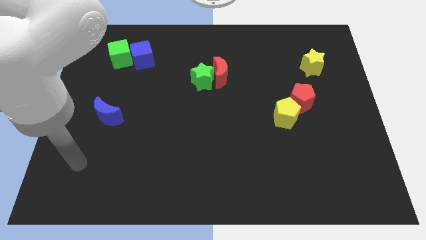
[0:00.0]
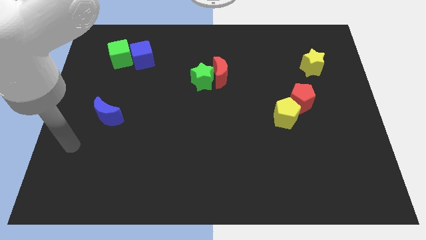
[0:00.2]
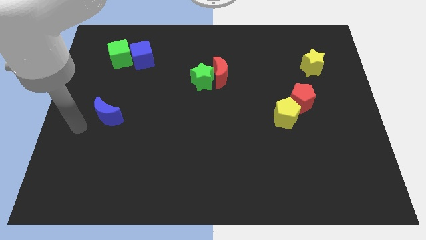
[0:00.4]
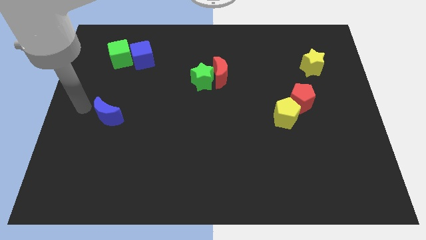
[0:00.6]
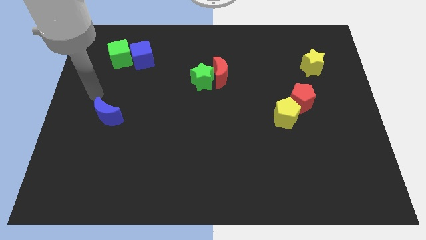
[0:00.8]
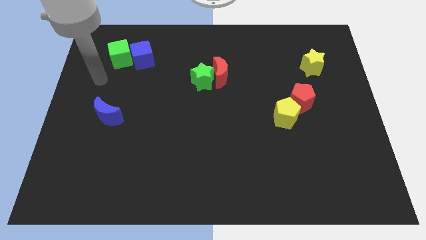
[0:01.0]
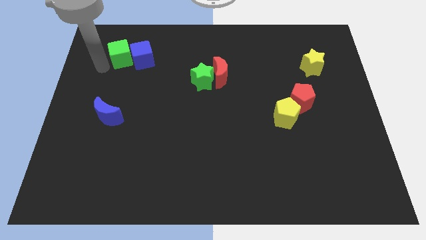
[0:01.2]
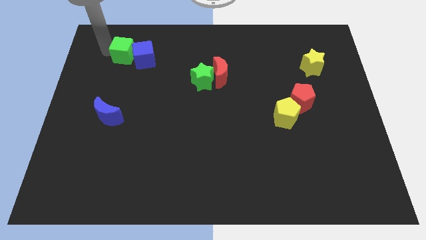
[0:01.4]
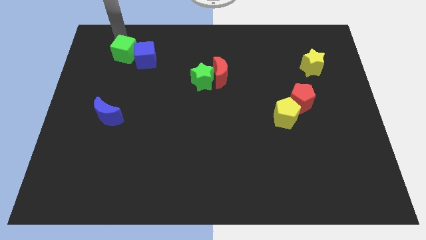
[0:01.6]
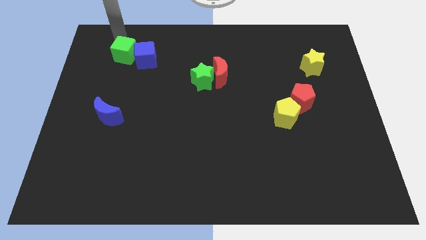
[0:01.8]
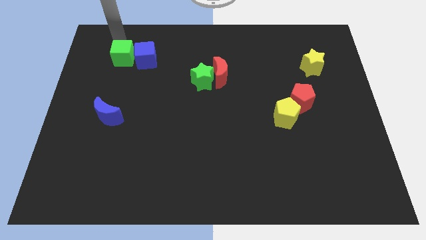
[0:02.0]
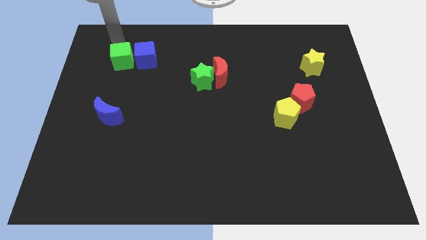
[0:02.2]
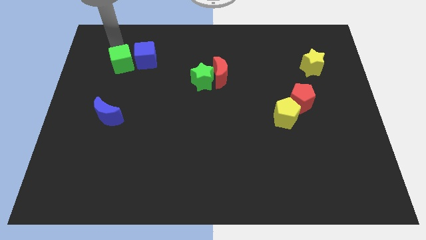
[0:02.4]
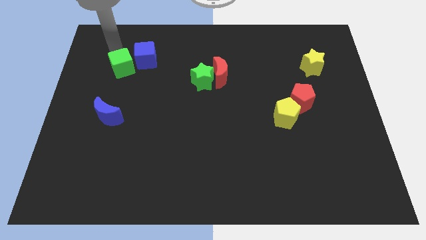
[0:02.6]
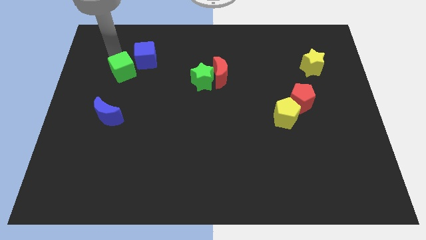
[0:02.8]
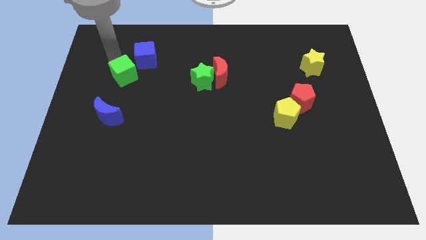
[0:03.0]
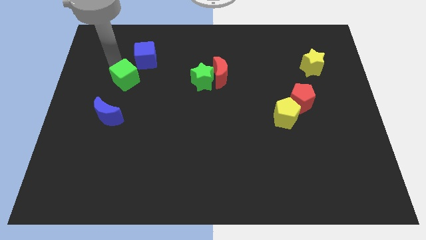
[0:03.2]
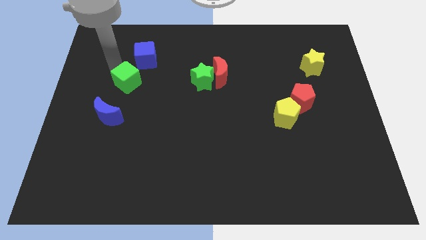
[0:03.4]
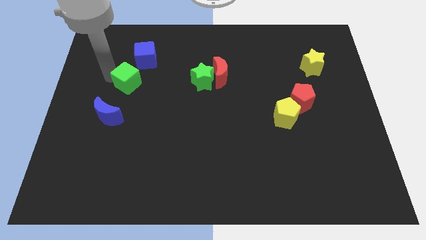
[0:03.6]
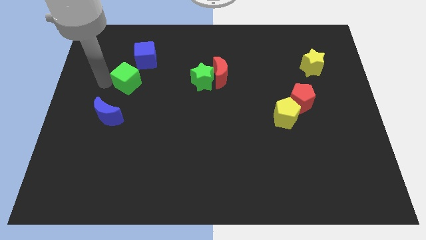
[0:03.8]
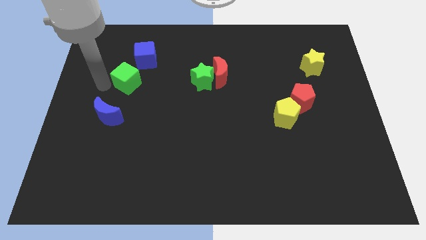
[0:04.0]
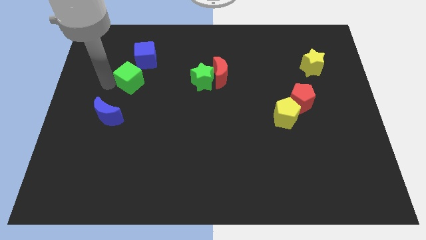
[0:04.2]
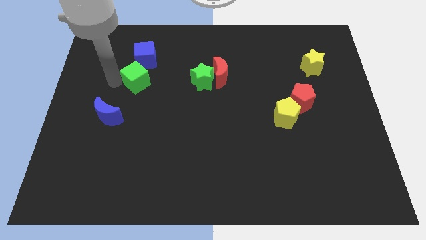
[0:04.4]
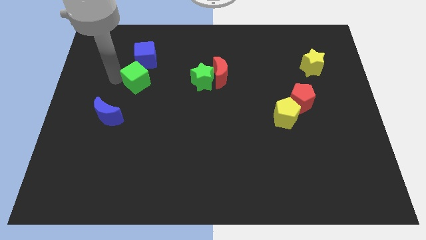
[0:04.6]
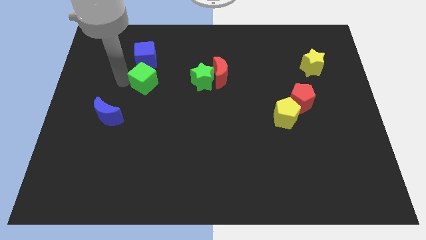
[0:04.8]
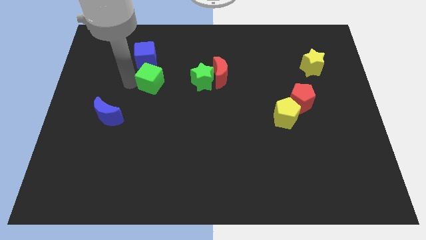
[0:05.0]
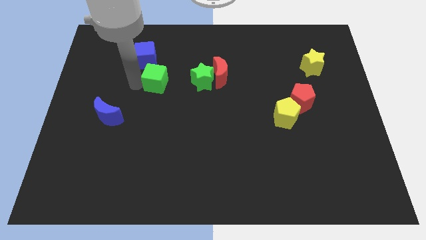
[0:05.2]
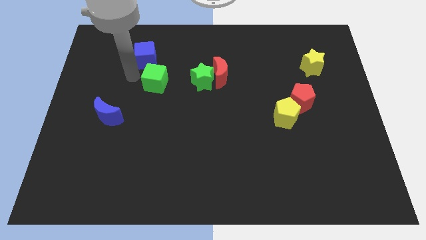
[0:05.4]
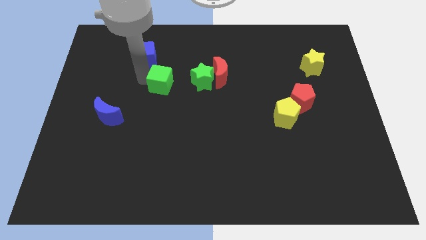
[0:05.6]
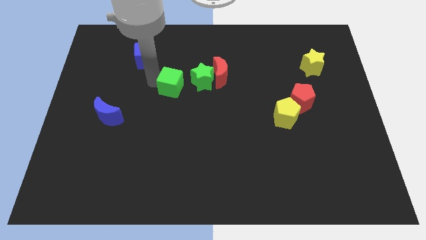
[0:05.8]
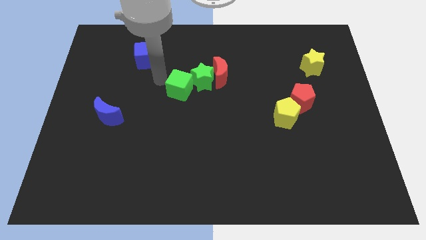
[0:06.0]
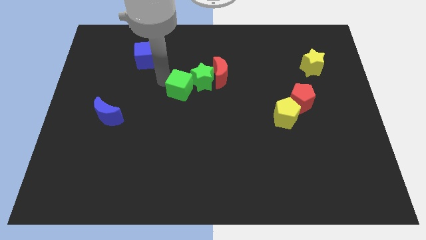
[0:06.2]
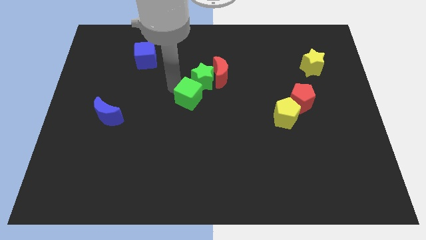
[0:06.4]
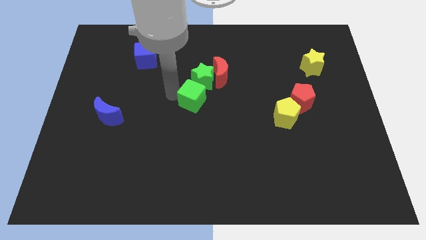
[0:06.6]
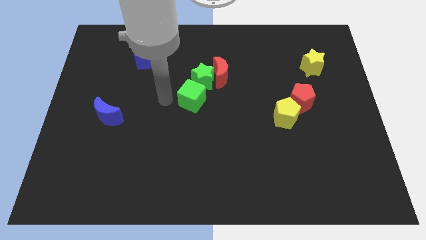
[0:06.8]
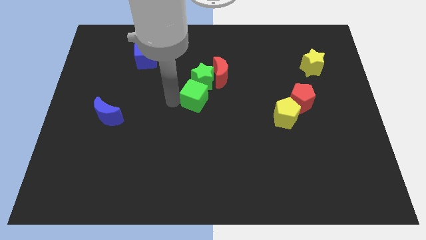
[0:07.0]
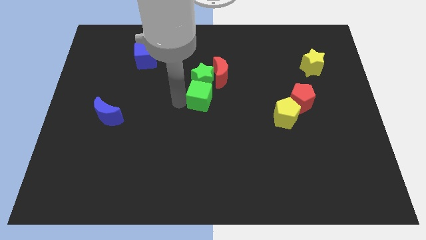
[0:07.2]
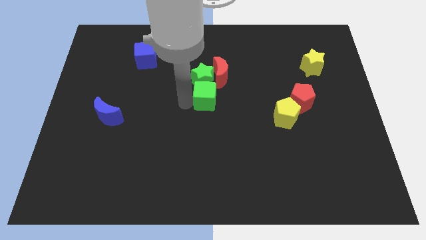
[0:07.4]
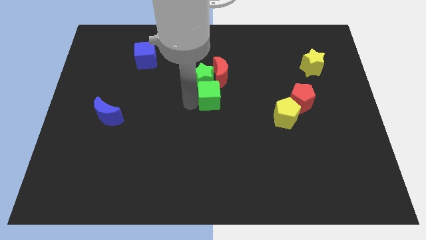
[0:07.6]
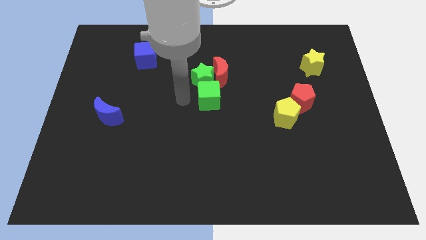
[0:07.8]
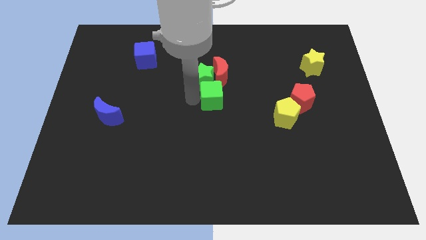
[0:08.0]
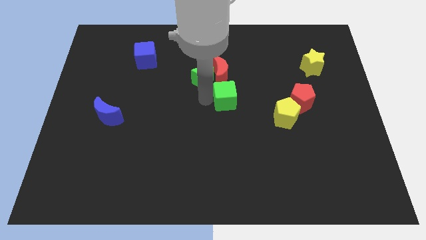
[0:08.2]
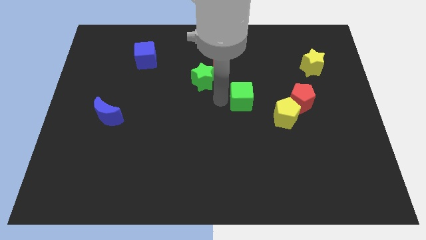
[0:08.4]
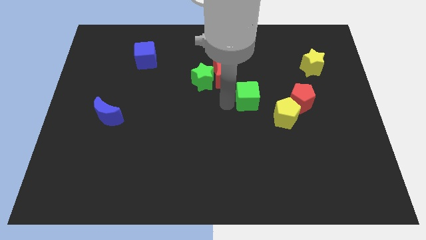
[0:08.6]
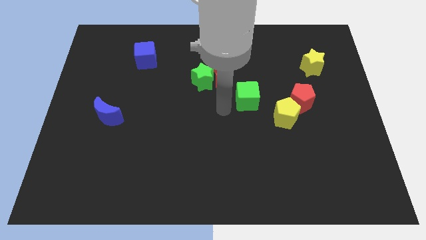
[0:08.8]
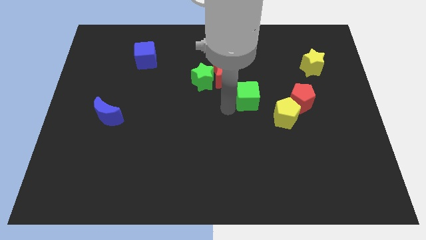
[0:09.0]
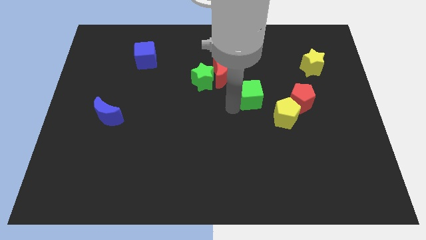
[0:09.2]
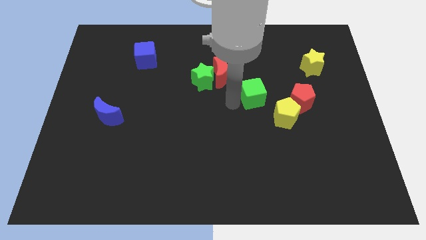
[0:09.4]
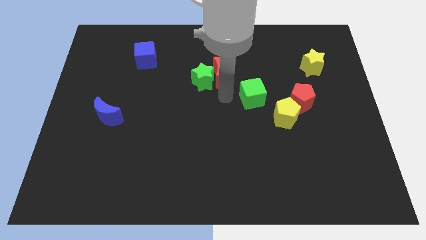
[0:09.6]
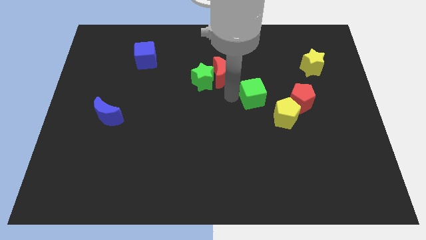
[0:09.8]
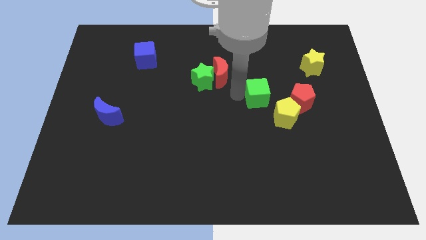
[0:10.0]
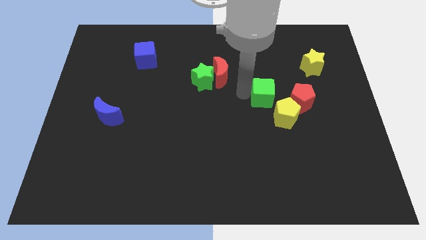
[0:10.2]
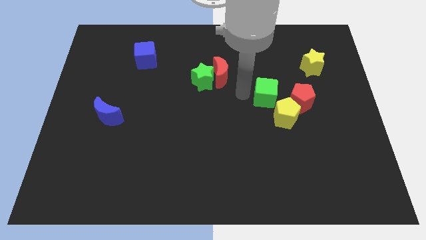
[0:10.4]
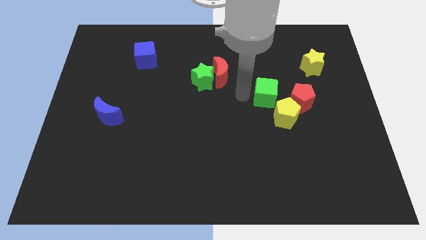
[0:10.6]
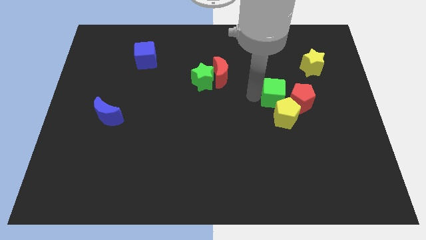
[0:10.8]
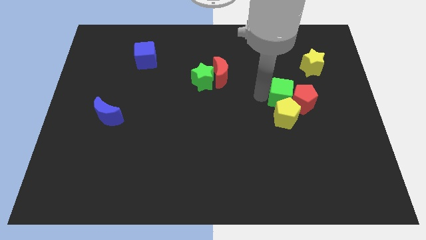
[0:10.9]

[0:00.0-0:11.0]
slide the green cube next to the red pentagon

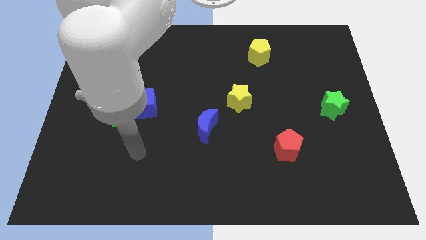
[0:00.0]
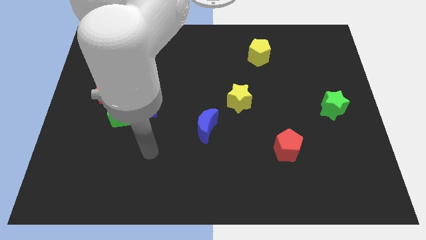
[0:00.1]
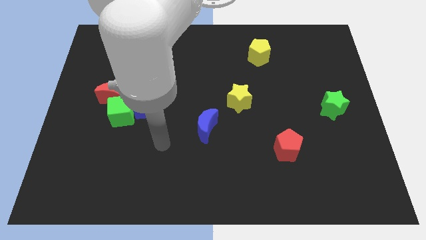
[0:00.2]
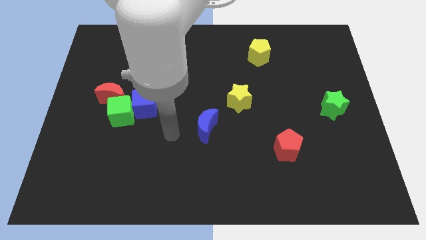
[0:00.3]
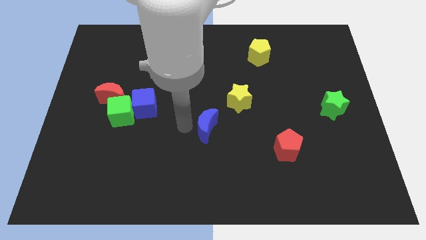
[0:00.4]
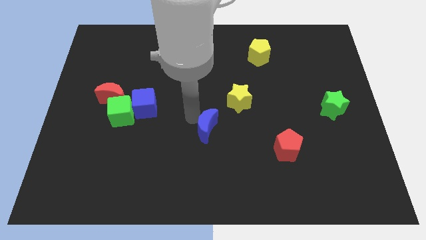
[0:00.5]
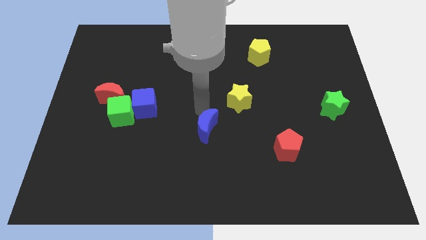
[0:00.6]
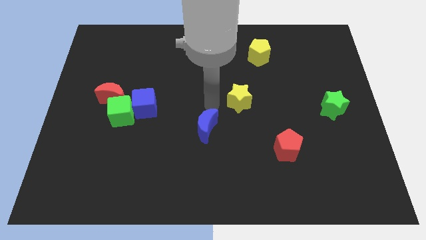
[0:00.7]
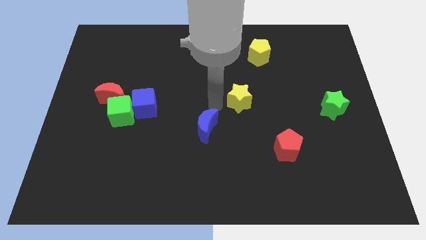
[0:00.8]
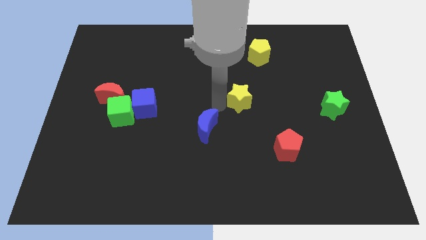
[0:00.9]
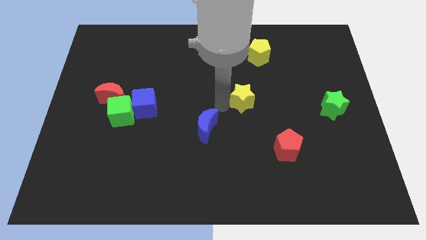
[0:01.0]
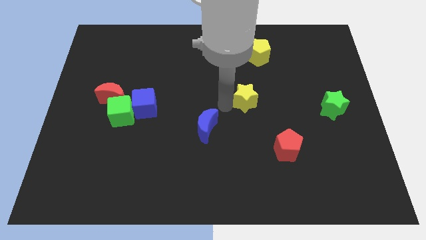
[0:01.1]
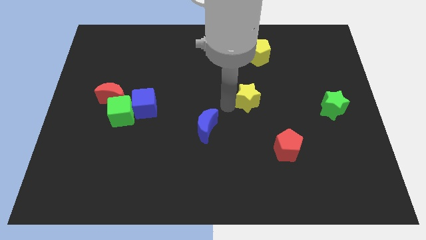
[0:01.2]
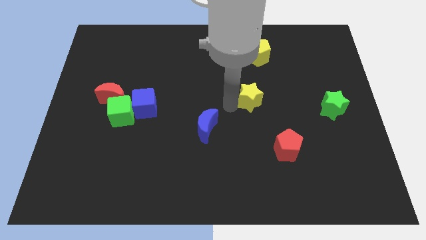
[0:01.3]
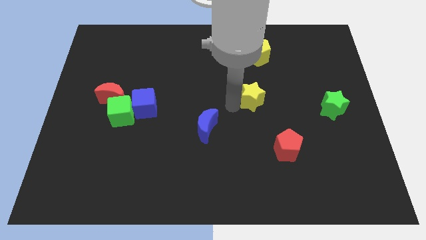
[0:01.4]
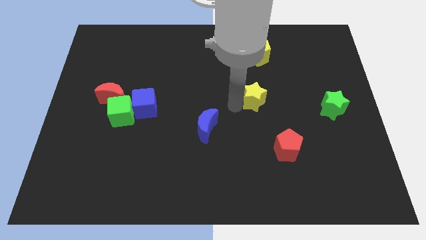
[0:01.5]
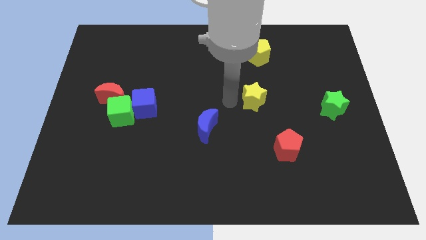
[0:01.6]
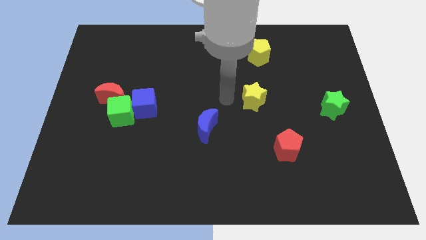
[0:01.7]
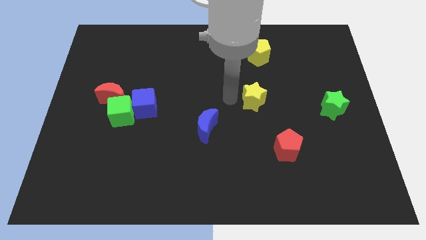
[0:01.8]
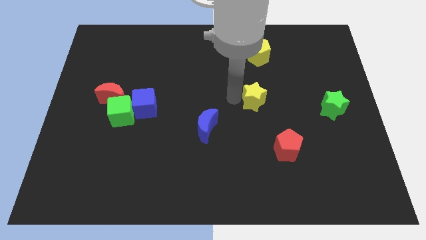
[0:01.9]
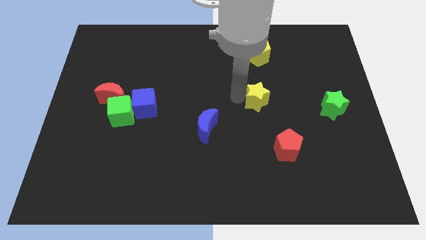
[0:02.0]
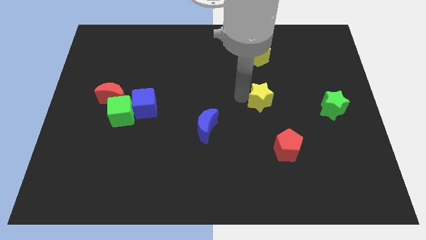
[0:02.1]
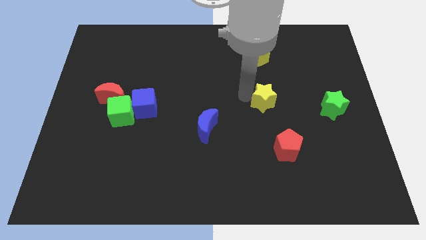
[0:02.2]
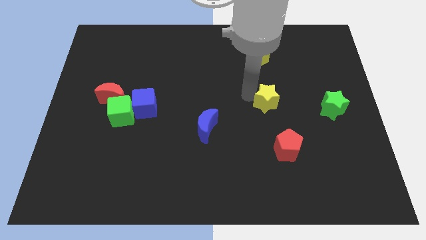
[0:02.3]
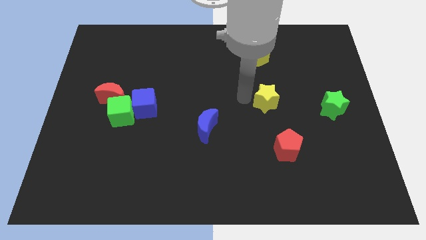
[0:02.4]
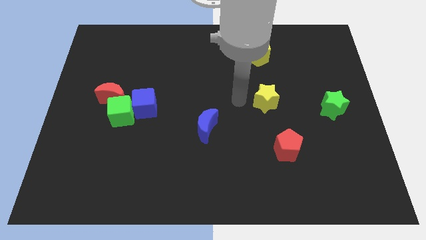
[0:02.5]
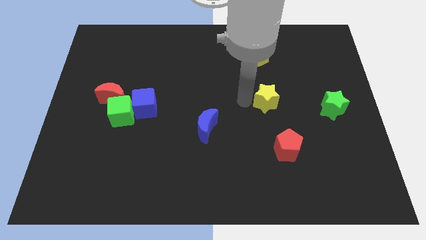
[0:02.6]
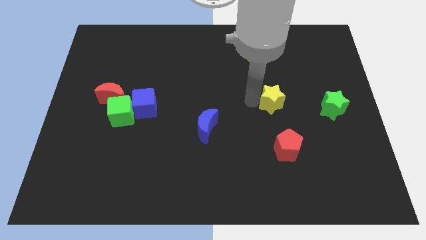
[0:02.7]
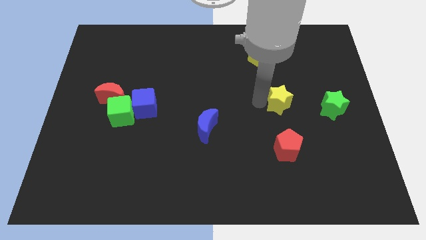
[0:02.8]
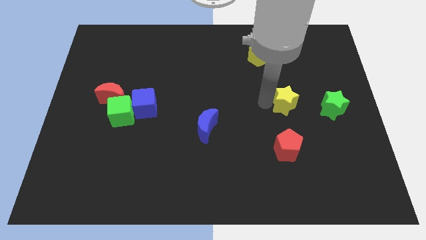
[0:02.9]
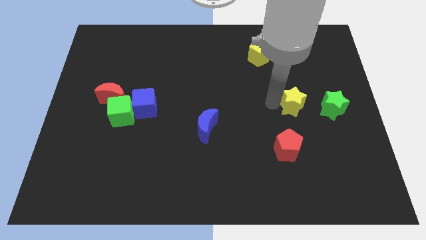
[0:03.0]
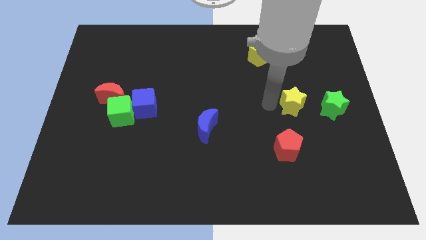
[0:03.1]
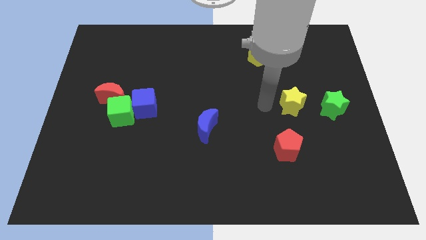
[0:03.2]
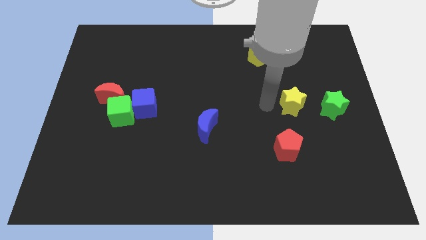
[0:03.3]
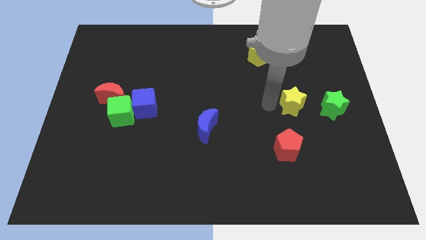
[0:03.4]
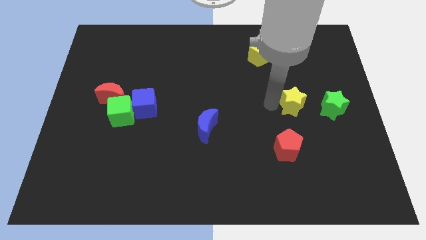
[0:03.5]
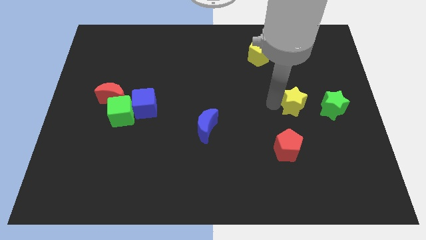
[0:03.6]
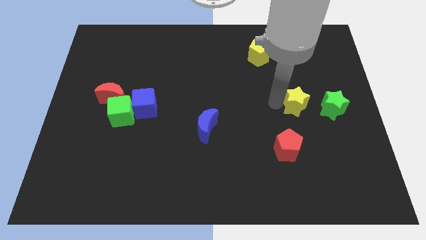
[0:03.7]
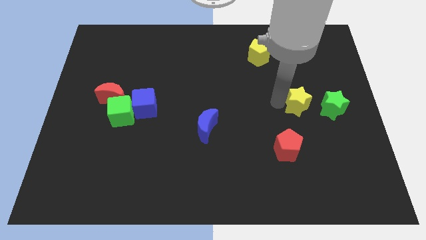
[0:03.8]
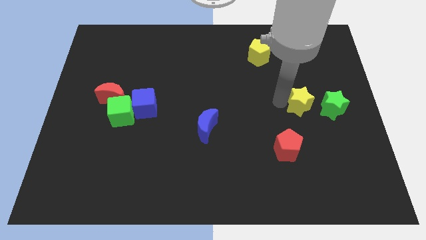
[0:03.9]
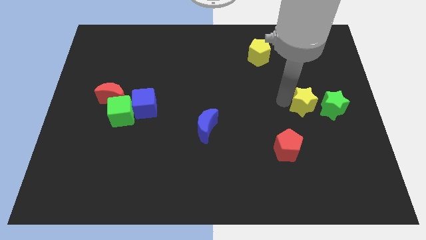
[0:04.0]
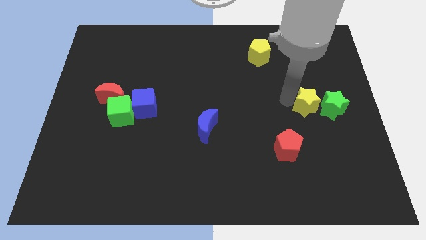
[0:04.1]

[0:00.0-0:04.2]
move the yellow star next to the green star
